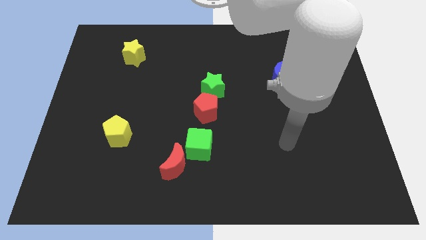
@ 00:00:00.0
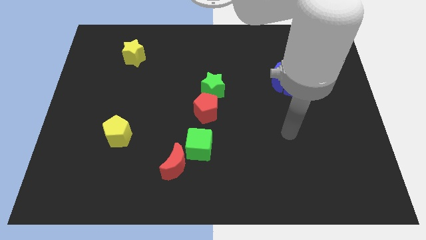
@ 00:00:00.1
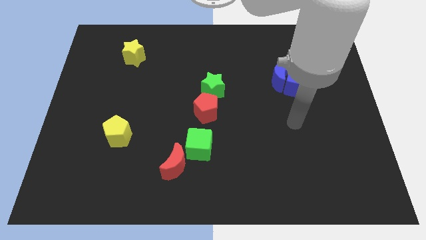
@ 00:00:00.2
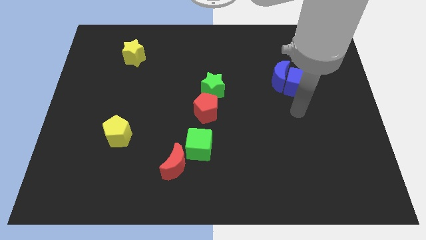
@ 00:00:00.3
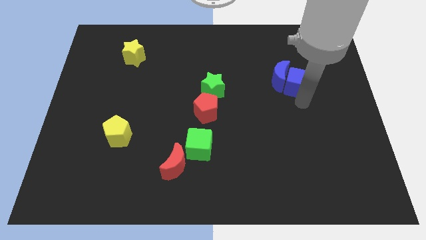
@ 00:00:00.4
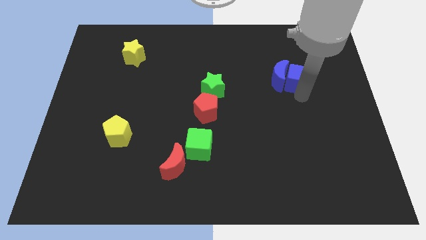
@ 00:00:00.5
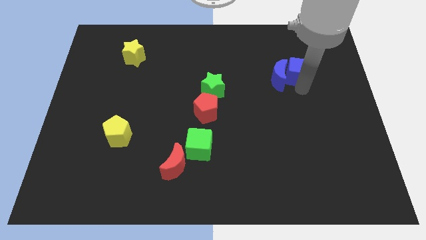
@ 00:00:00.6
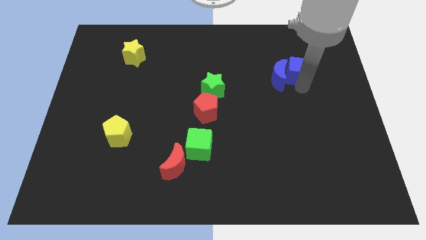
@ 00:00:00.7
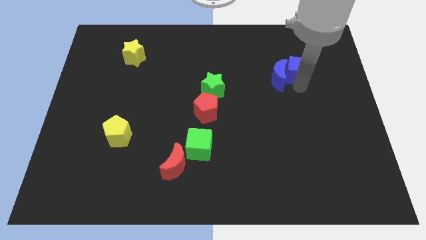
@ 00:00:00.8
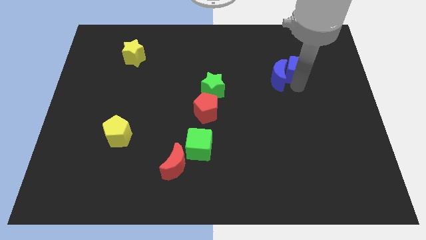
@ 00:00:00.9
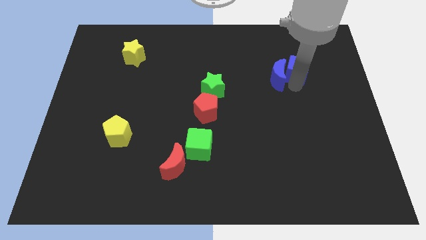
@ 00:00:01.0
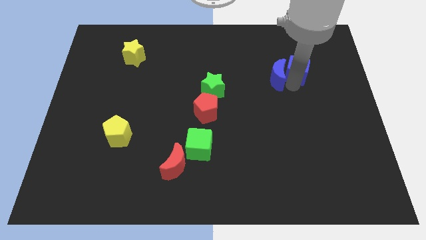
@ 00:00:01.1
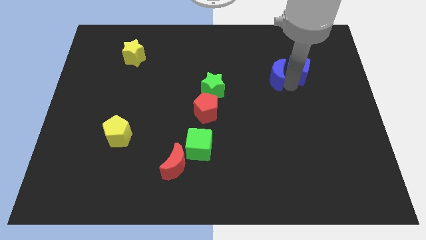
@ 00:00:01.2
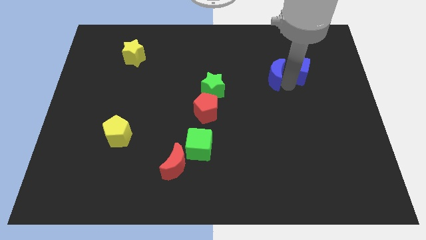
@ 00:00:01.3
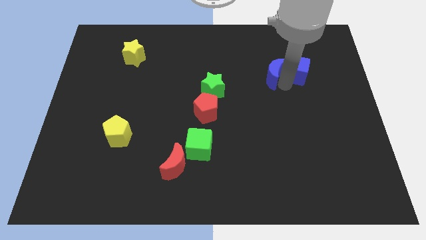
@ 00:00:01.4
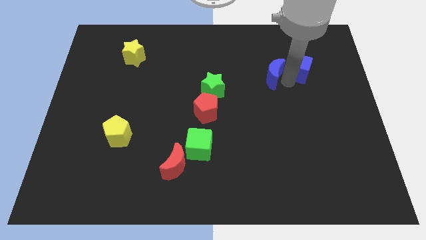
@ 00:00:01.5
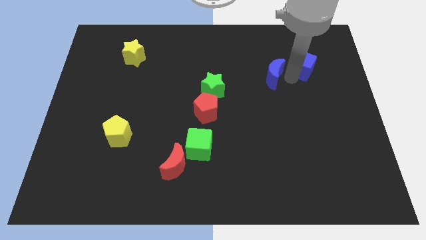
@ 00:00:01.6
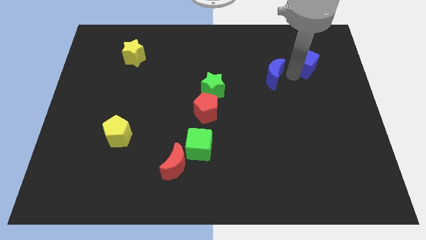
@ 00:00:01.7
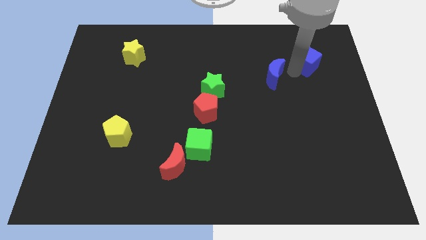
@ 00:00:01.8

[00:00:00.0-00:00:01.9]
move the blue moon away from the blue cube

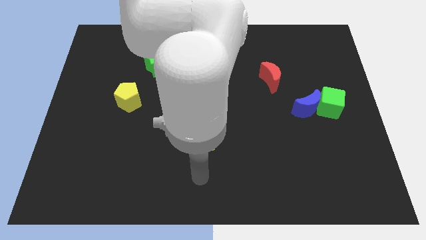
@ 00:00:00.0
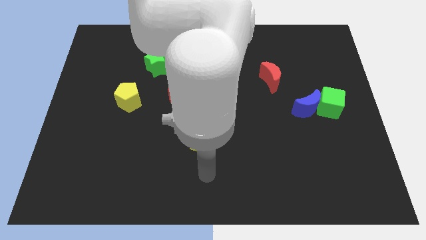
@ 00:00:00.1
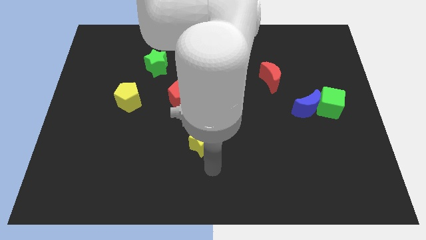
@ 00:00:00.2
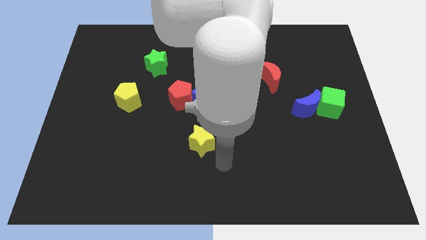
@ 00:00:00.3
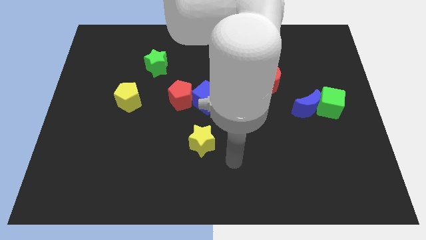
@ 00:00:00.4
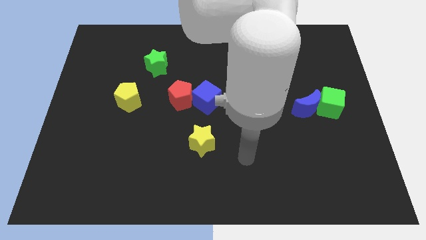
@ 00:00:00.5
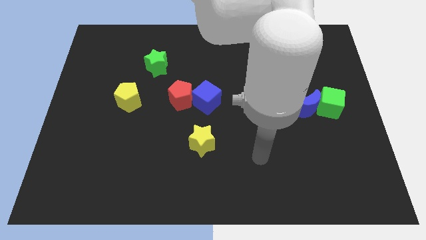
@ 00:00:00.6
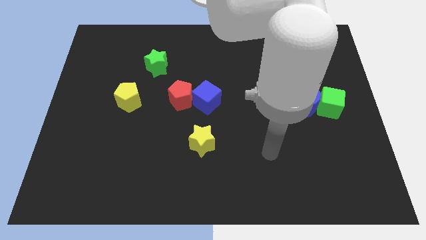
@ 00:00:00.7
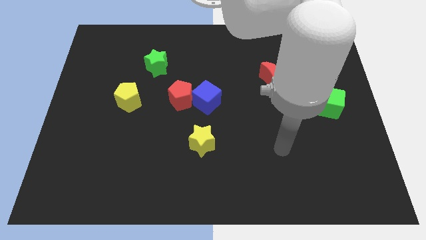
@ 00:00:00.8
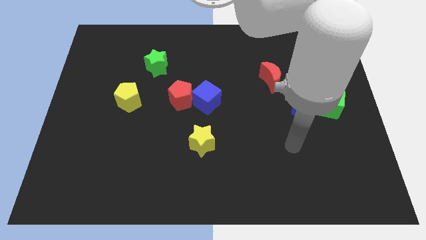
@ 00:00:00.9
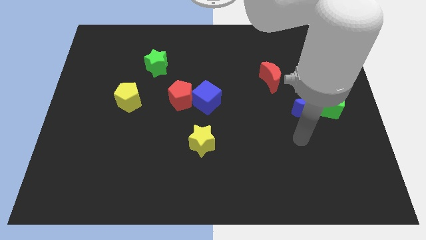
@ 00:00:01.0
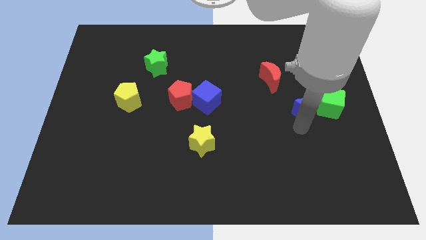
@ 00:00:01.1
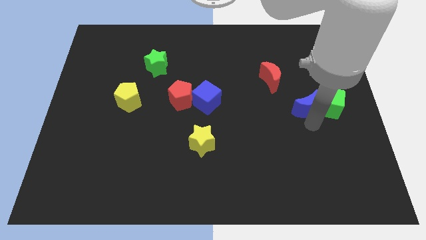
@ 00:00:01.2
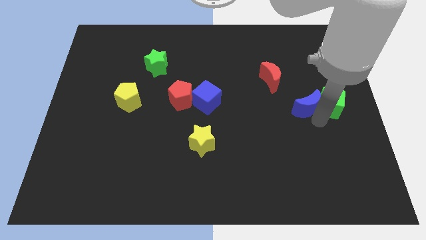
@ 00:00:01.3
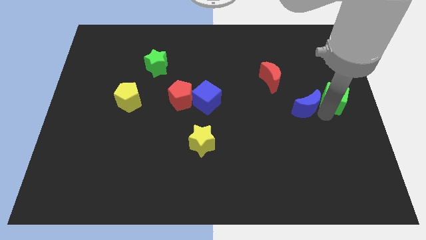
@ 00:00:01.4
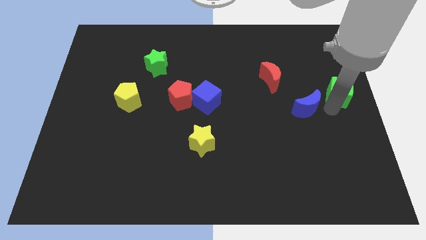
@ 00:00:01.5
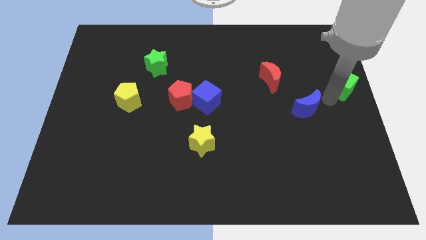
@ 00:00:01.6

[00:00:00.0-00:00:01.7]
separate the blue moon from the green cube

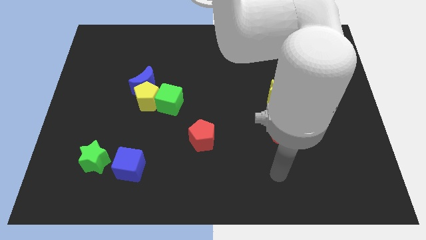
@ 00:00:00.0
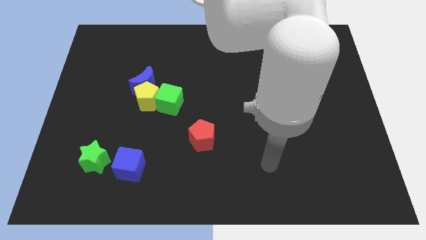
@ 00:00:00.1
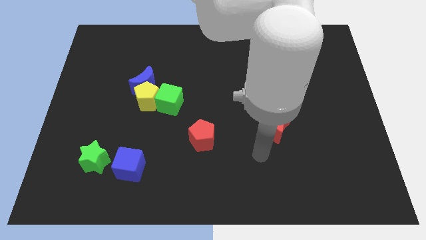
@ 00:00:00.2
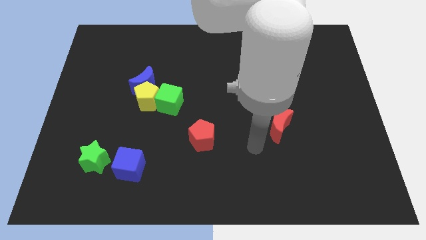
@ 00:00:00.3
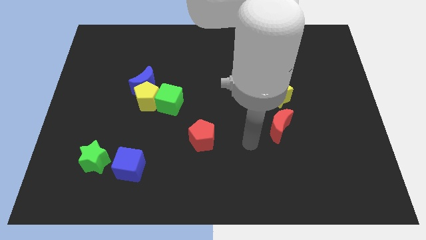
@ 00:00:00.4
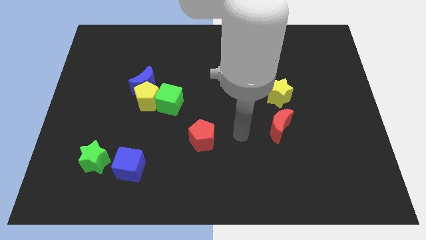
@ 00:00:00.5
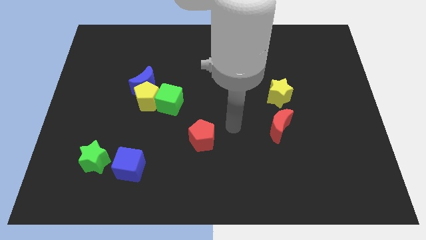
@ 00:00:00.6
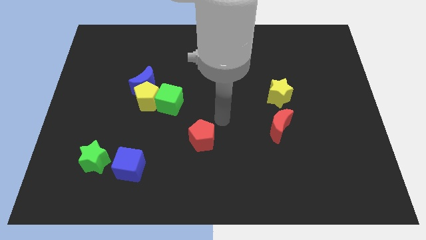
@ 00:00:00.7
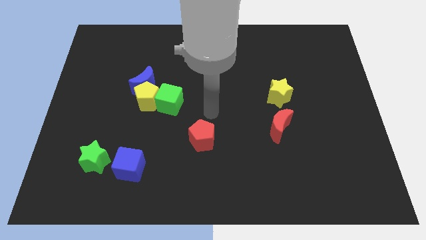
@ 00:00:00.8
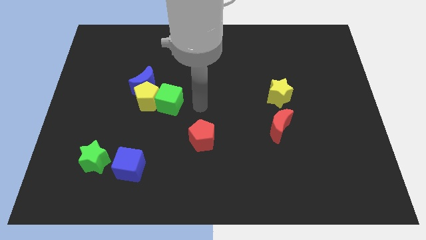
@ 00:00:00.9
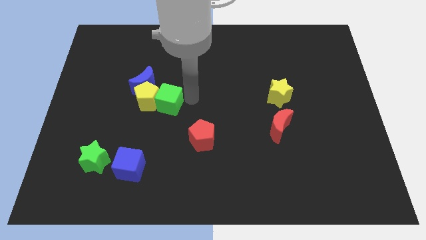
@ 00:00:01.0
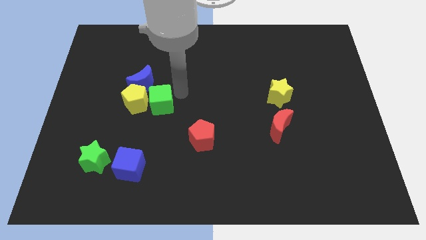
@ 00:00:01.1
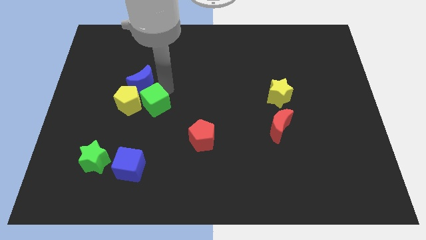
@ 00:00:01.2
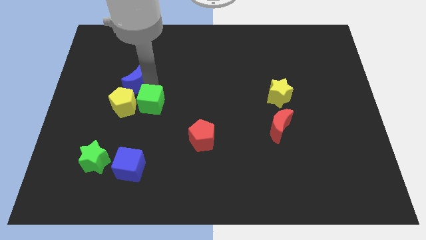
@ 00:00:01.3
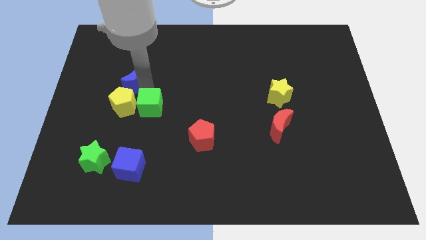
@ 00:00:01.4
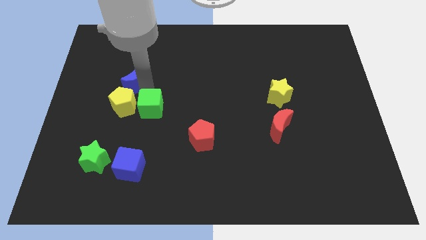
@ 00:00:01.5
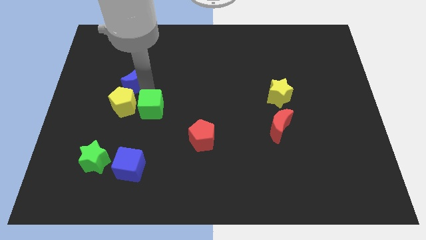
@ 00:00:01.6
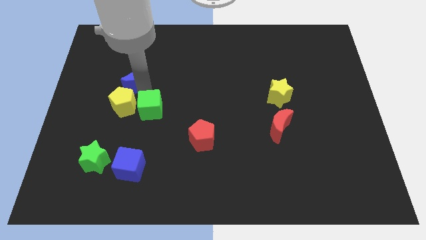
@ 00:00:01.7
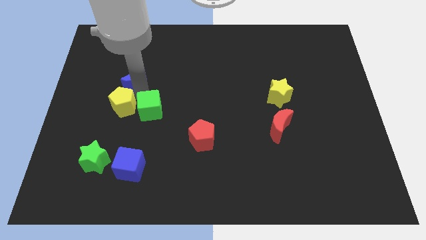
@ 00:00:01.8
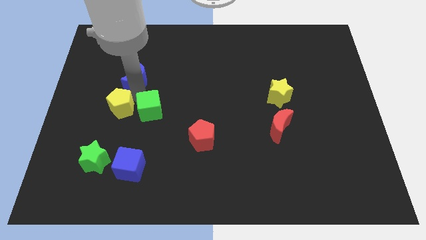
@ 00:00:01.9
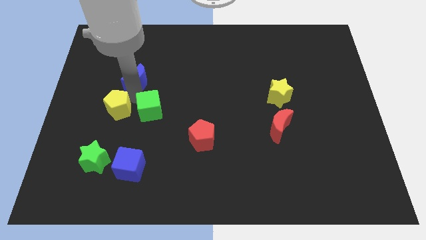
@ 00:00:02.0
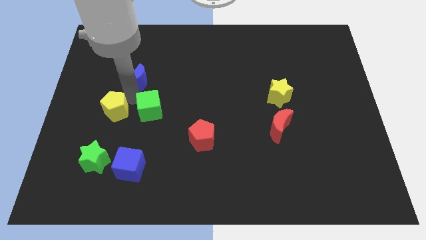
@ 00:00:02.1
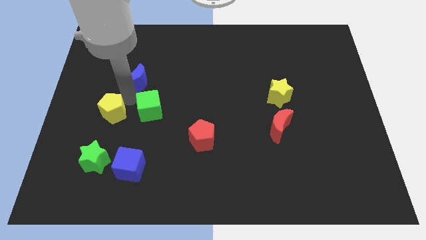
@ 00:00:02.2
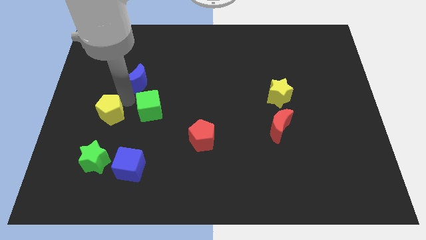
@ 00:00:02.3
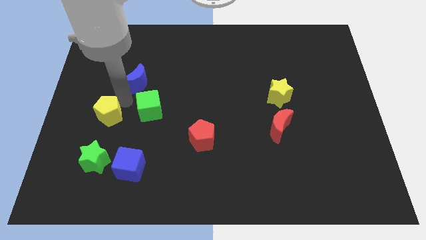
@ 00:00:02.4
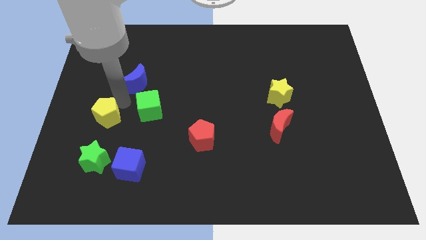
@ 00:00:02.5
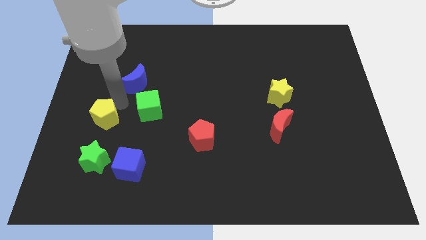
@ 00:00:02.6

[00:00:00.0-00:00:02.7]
separate the yellow pentagon from the blue moon and green cube

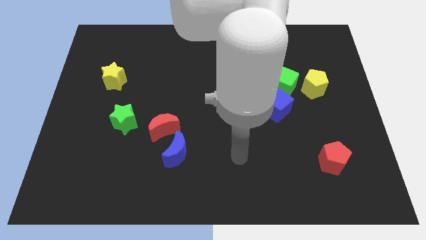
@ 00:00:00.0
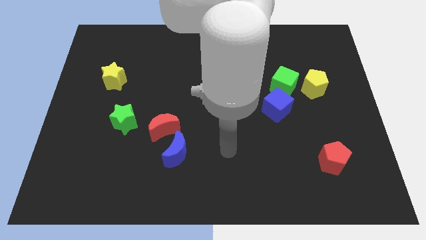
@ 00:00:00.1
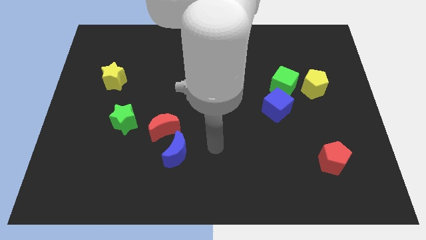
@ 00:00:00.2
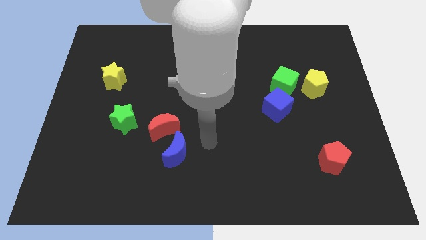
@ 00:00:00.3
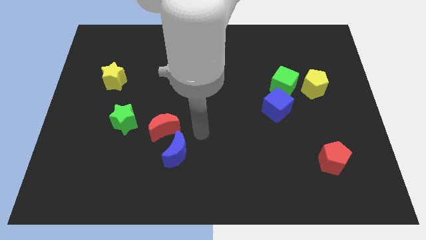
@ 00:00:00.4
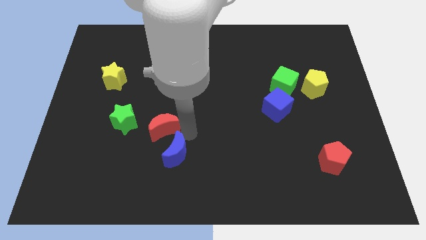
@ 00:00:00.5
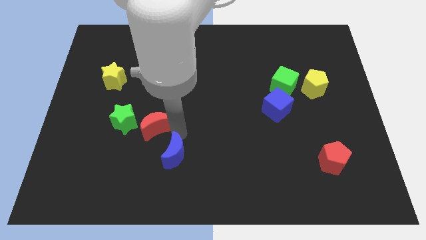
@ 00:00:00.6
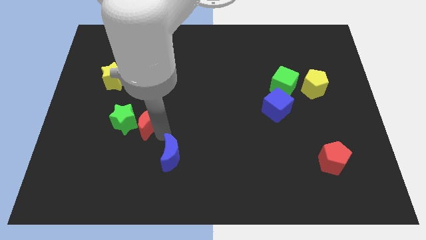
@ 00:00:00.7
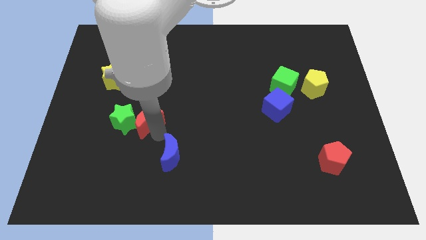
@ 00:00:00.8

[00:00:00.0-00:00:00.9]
separate the blue moon from the red moon

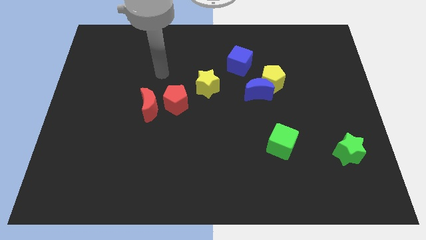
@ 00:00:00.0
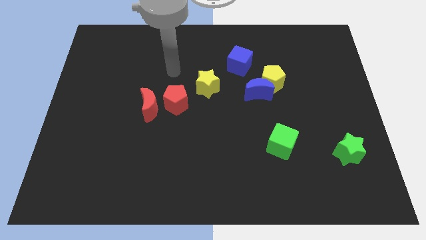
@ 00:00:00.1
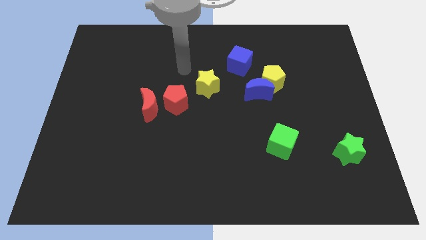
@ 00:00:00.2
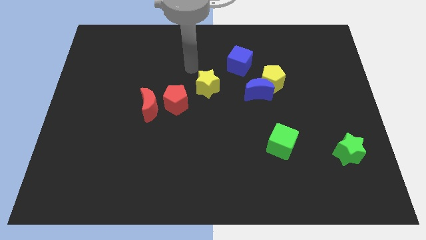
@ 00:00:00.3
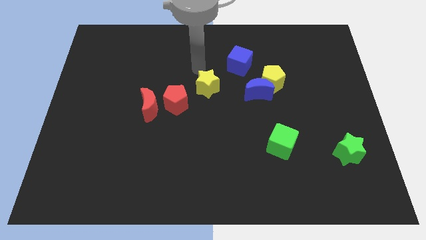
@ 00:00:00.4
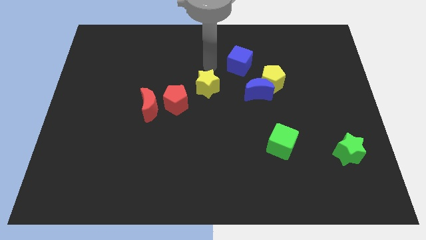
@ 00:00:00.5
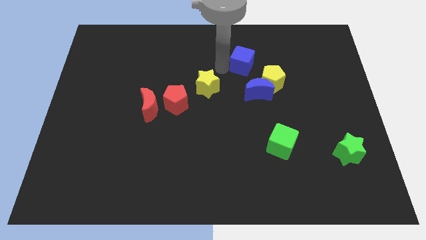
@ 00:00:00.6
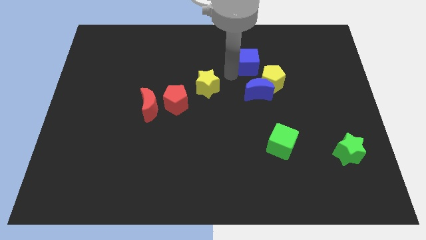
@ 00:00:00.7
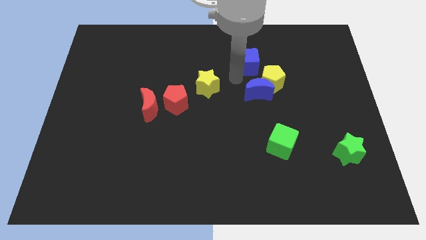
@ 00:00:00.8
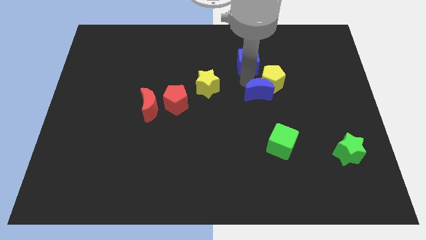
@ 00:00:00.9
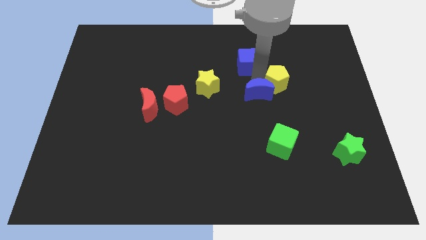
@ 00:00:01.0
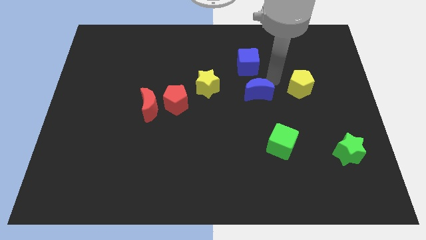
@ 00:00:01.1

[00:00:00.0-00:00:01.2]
move the blue moon away from the yellow pentagon

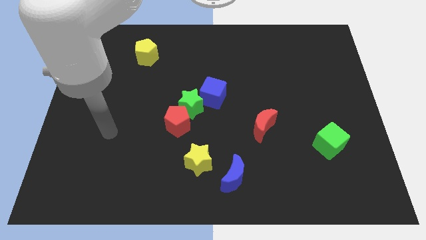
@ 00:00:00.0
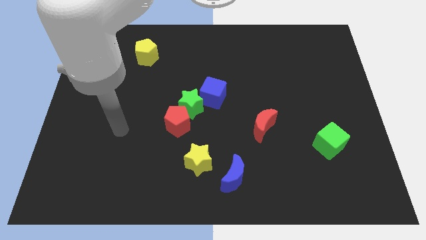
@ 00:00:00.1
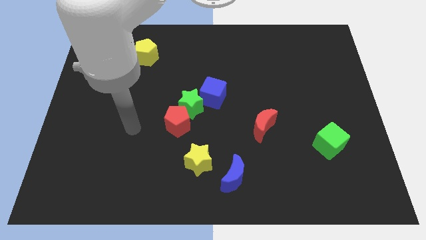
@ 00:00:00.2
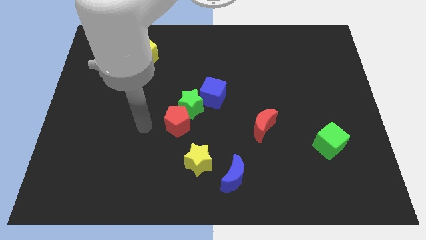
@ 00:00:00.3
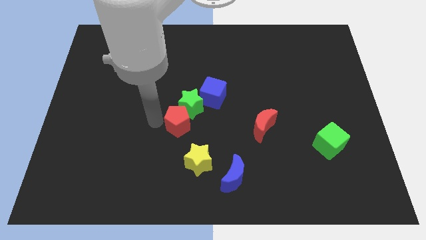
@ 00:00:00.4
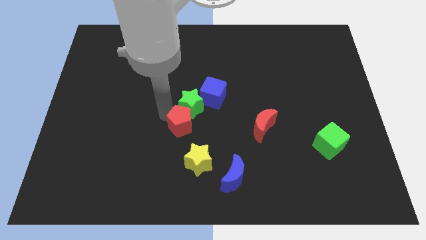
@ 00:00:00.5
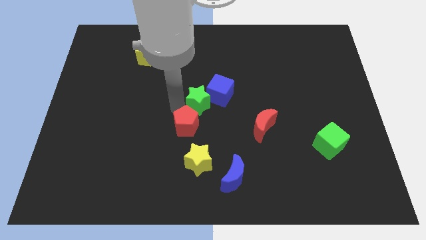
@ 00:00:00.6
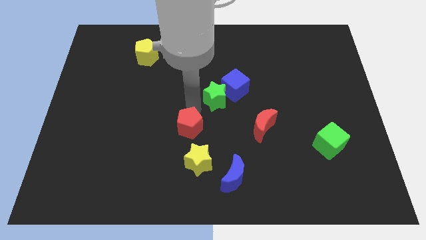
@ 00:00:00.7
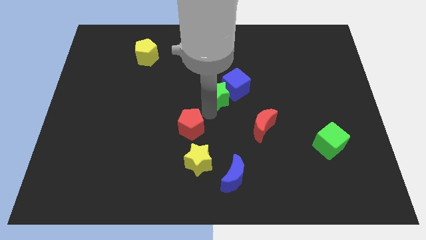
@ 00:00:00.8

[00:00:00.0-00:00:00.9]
separate the red pentagon from the green star
